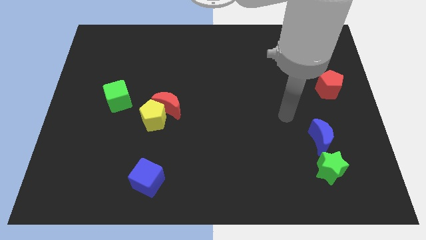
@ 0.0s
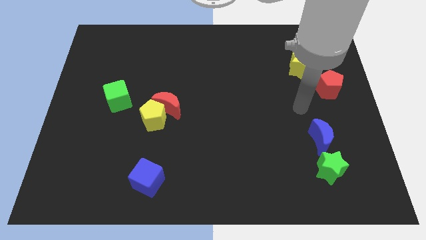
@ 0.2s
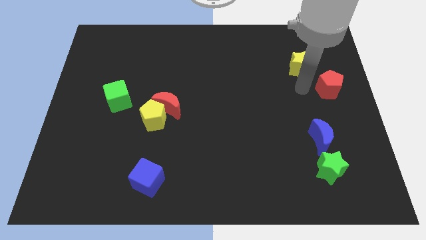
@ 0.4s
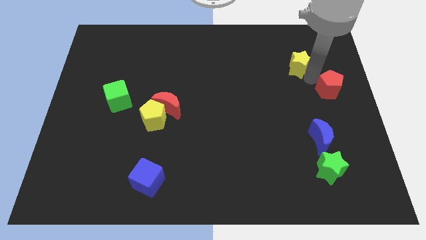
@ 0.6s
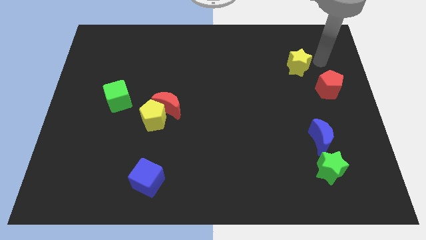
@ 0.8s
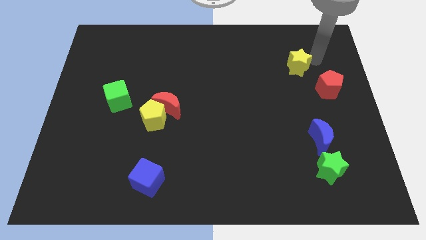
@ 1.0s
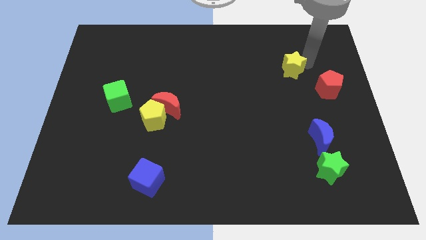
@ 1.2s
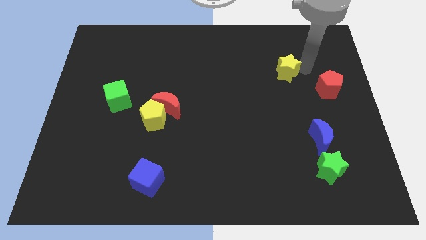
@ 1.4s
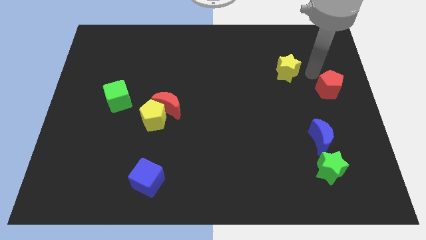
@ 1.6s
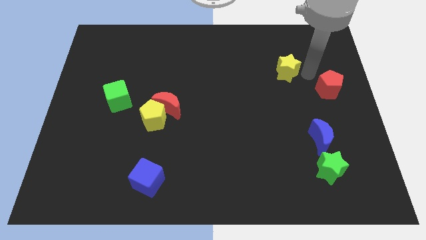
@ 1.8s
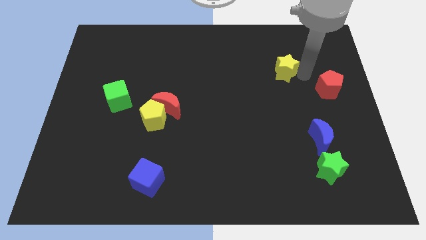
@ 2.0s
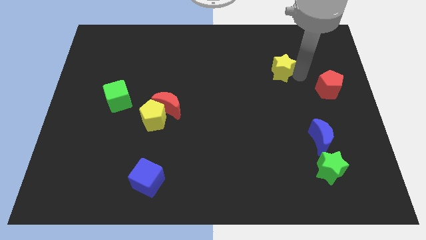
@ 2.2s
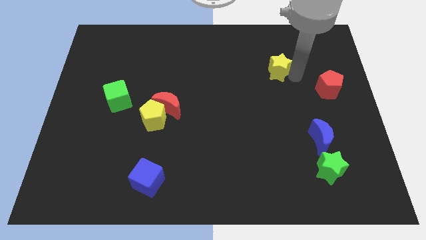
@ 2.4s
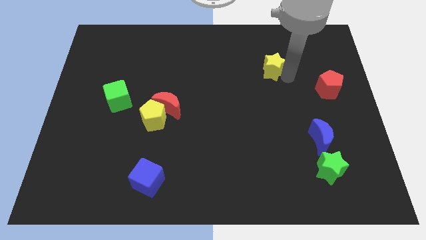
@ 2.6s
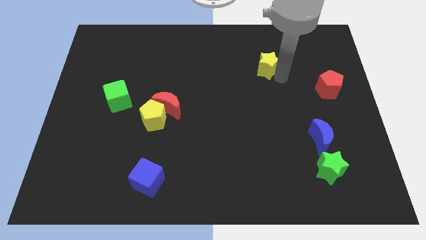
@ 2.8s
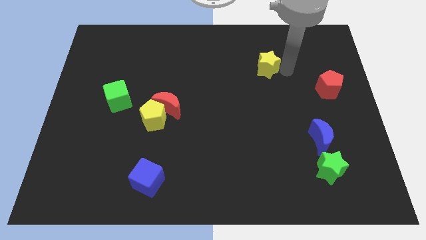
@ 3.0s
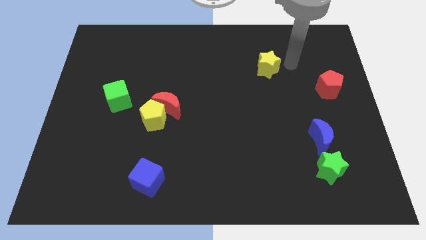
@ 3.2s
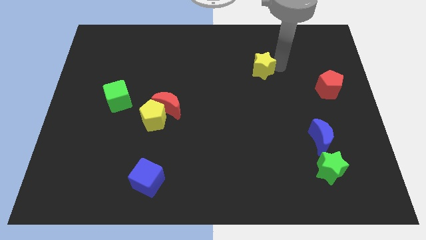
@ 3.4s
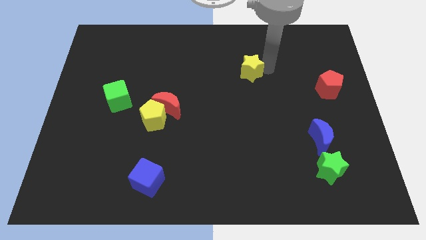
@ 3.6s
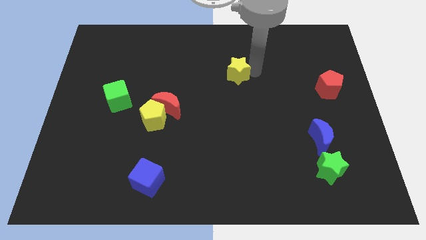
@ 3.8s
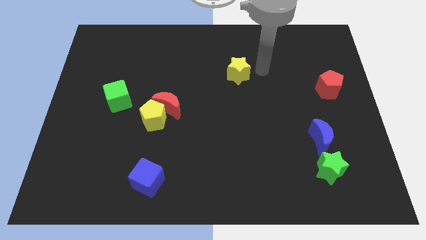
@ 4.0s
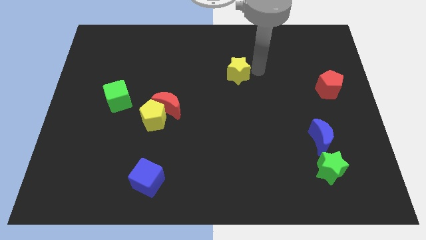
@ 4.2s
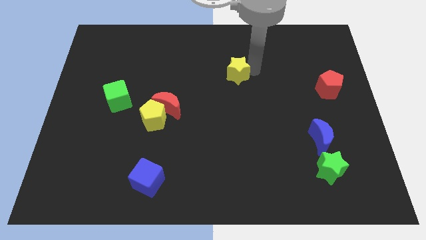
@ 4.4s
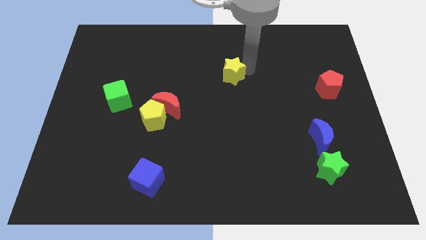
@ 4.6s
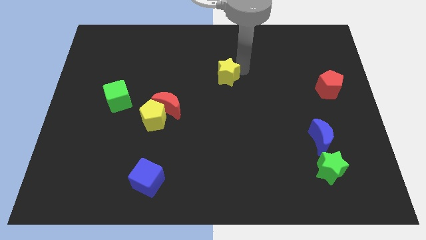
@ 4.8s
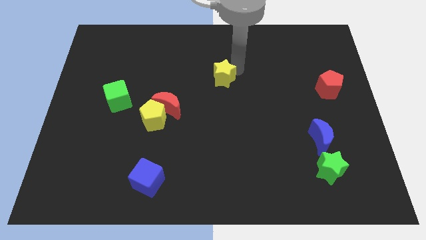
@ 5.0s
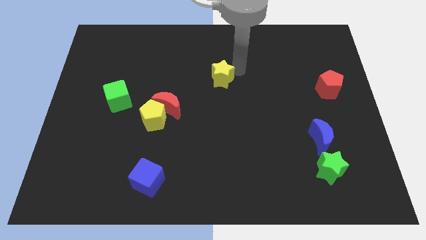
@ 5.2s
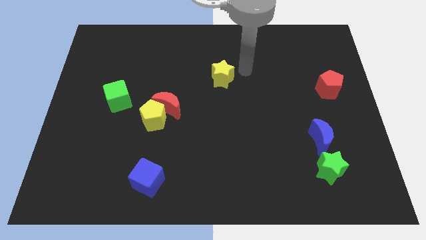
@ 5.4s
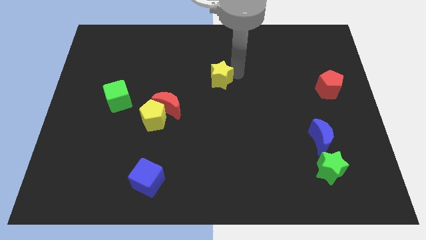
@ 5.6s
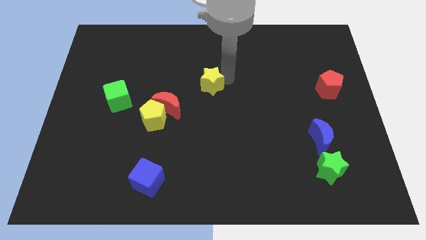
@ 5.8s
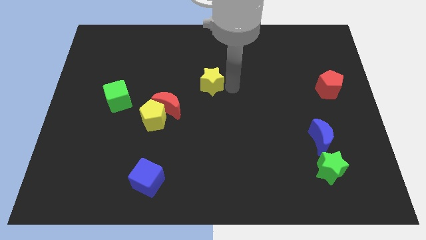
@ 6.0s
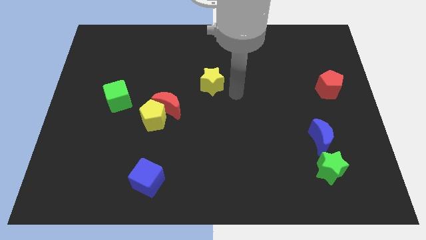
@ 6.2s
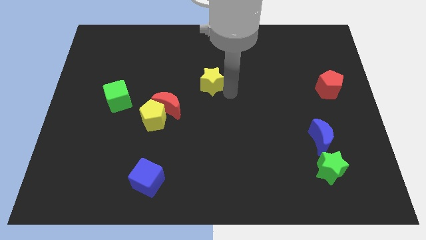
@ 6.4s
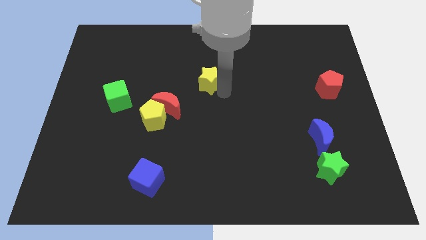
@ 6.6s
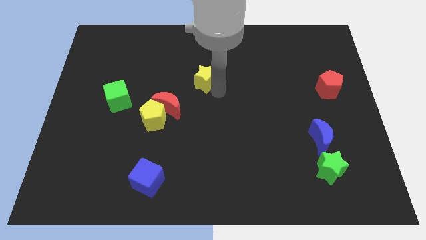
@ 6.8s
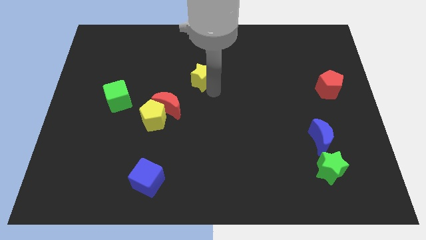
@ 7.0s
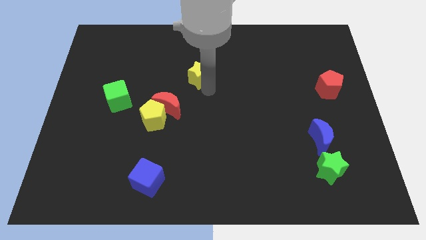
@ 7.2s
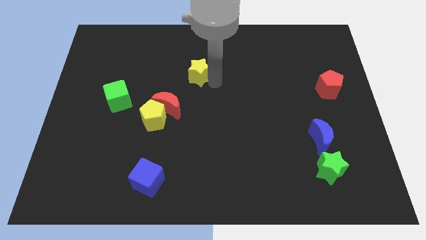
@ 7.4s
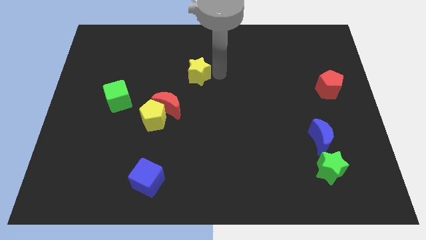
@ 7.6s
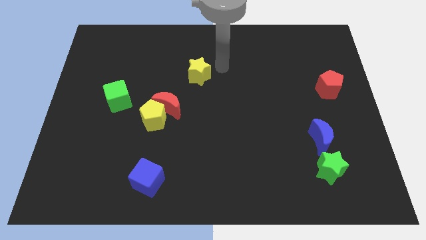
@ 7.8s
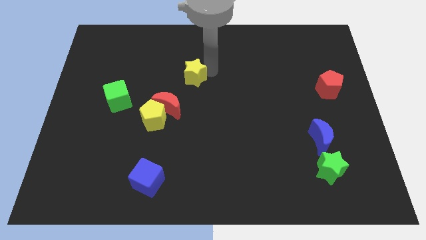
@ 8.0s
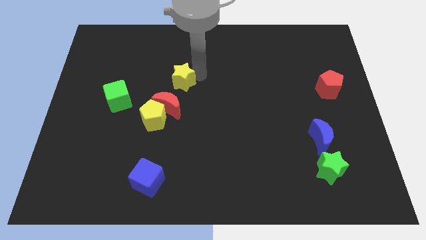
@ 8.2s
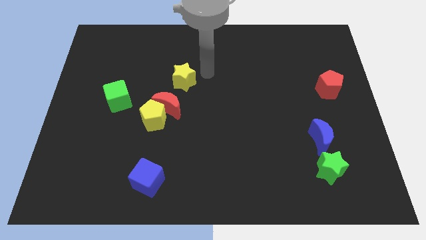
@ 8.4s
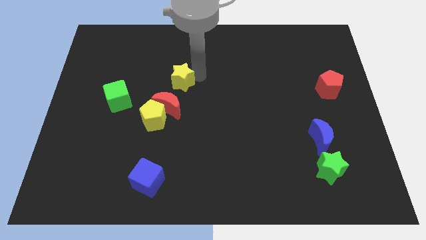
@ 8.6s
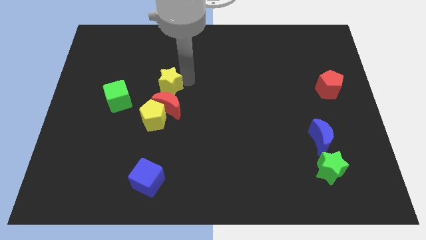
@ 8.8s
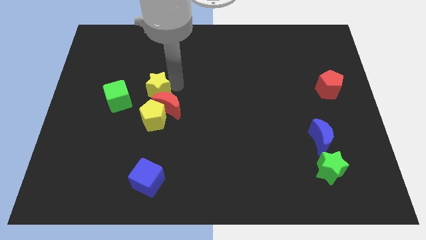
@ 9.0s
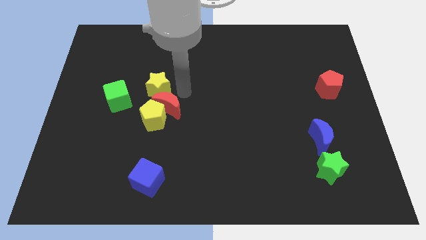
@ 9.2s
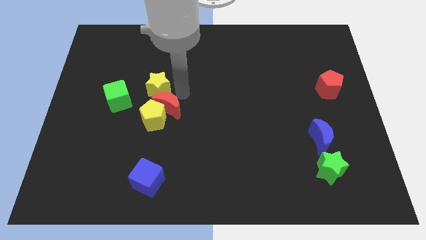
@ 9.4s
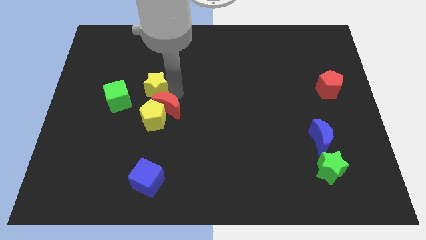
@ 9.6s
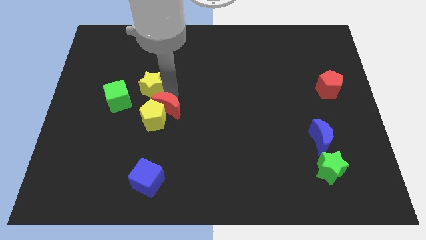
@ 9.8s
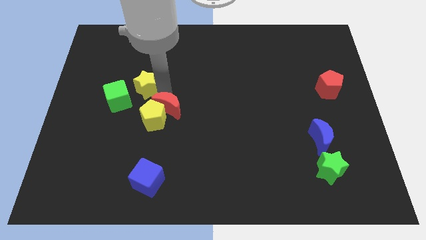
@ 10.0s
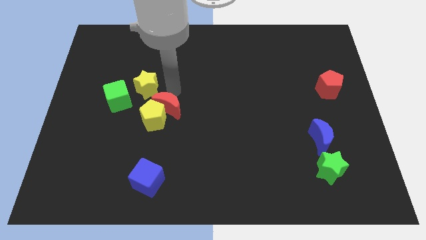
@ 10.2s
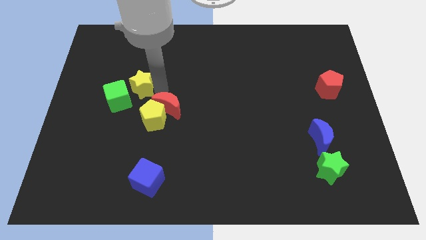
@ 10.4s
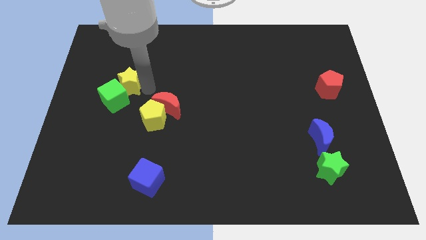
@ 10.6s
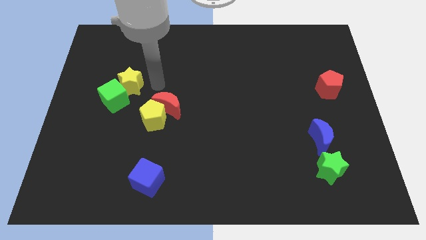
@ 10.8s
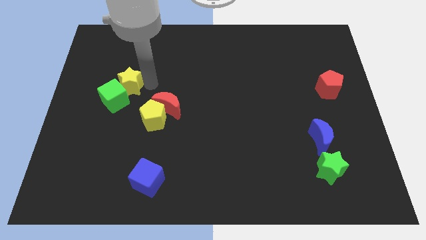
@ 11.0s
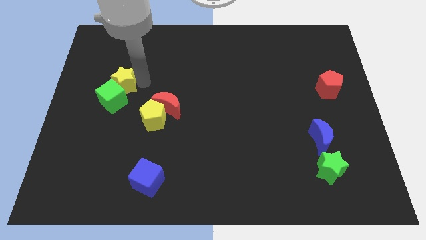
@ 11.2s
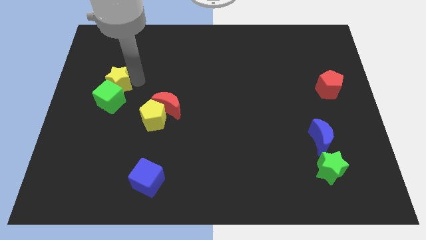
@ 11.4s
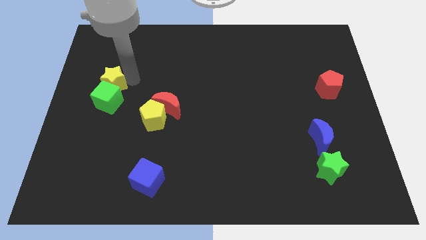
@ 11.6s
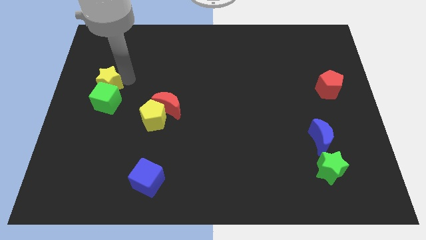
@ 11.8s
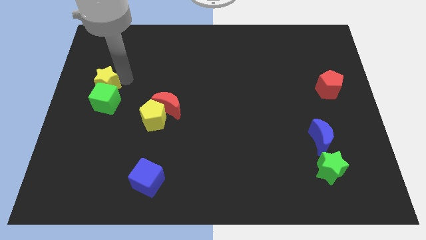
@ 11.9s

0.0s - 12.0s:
push the yellow star to the left side of the board

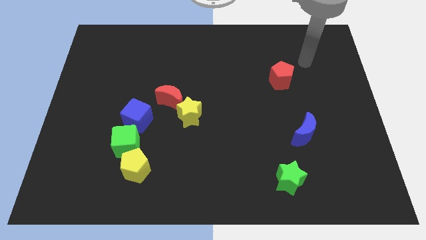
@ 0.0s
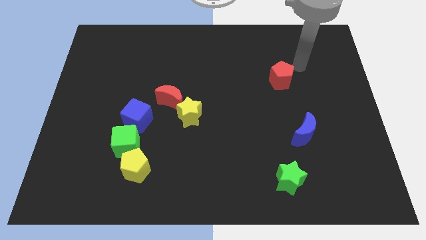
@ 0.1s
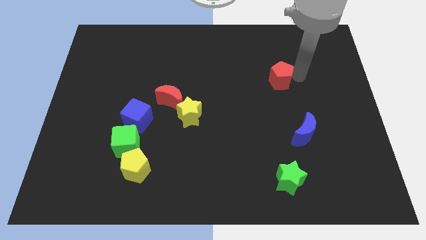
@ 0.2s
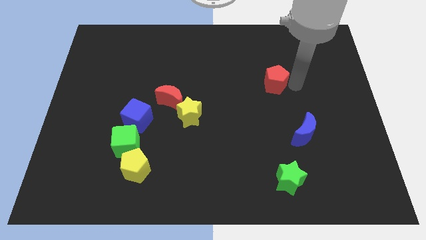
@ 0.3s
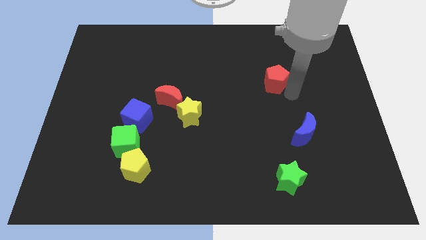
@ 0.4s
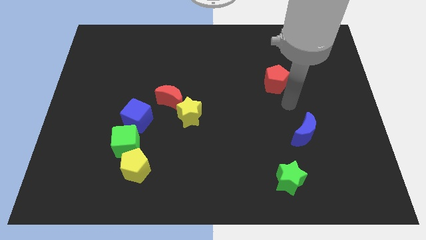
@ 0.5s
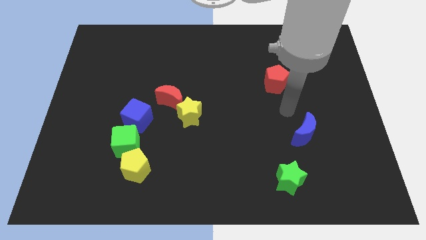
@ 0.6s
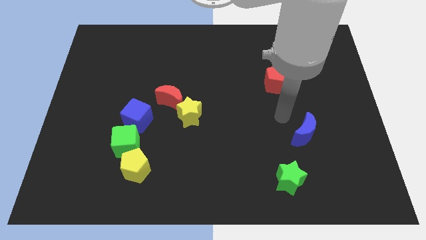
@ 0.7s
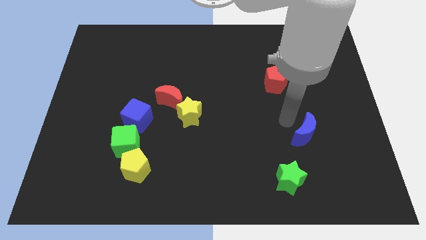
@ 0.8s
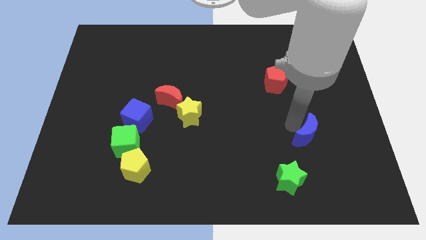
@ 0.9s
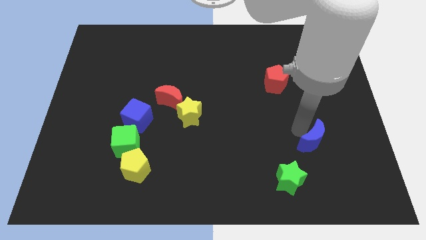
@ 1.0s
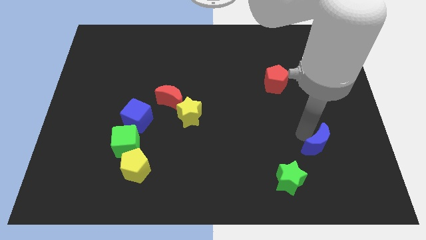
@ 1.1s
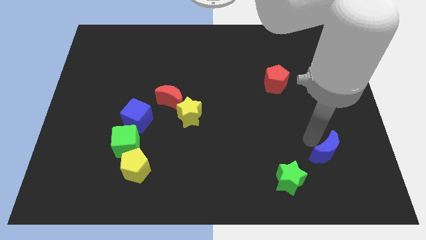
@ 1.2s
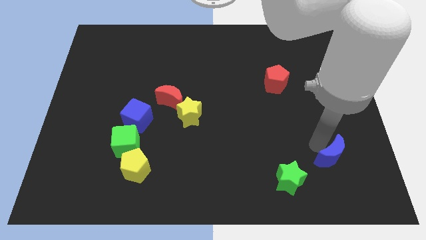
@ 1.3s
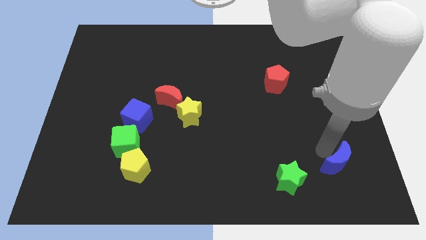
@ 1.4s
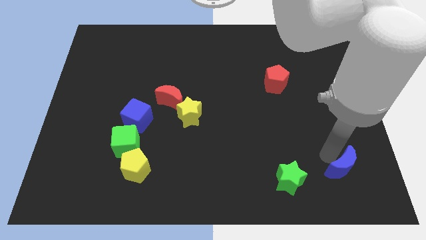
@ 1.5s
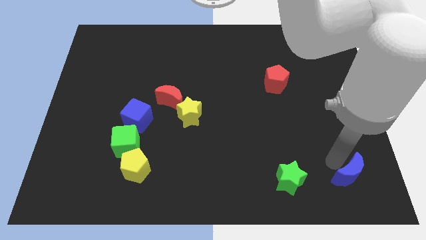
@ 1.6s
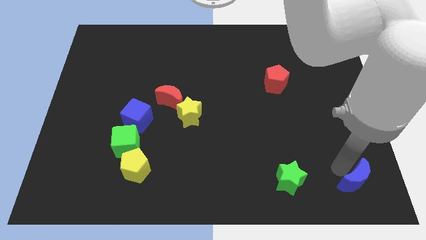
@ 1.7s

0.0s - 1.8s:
put the blue moon to the bottom right of the board

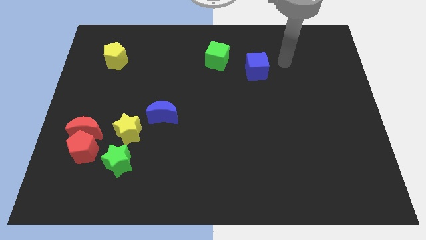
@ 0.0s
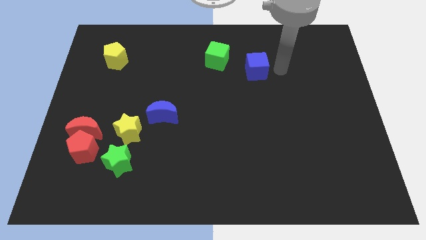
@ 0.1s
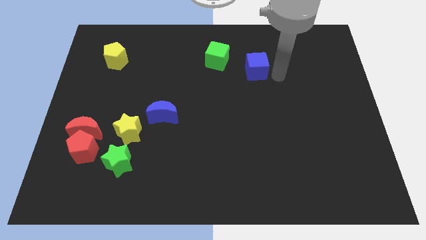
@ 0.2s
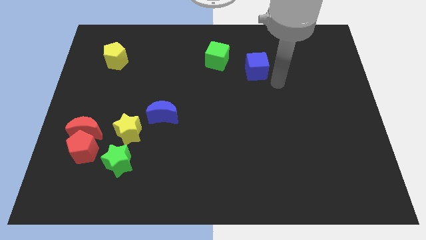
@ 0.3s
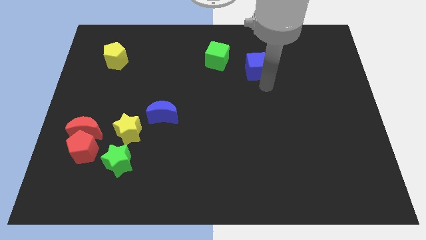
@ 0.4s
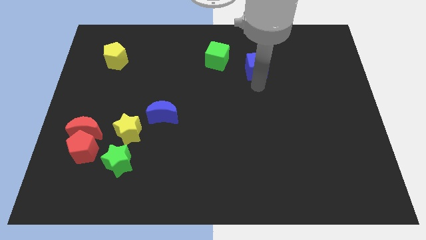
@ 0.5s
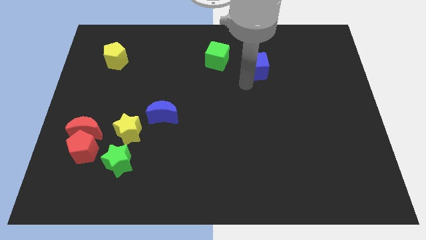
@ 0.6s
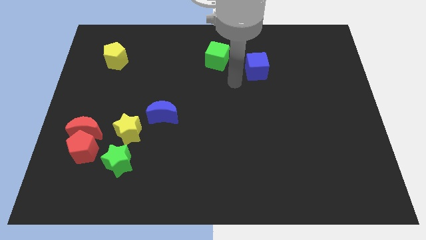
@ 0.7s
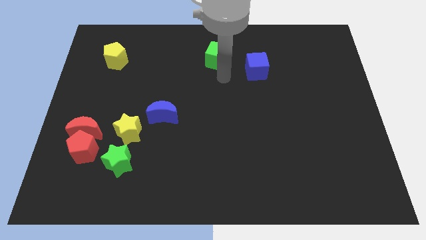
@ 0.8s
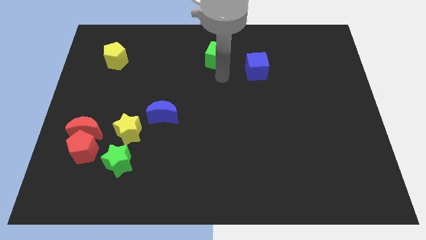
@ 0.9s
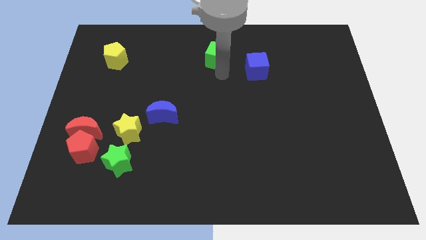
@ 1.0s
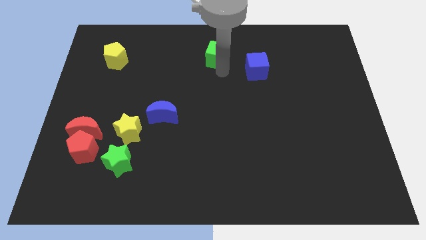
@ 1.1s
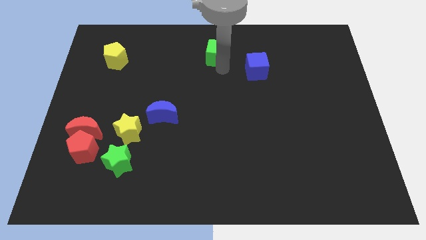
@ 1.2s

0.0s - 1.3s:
move the green cube to the top side
